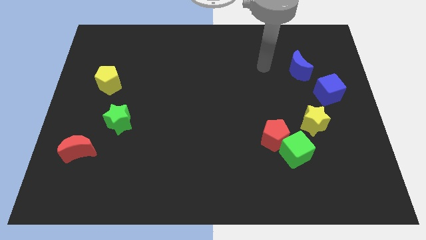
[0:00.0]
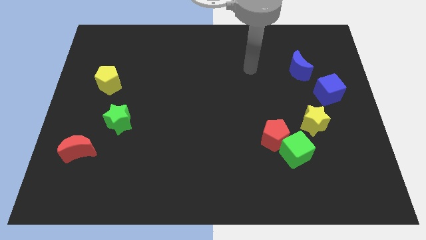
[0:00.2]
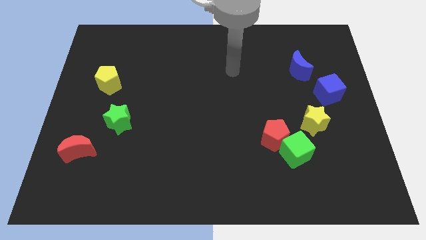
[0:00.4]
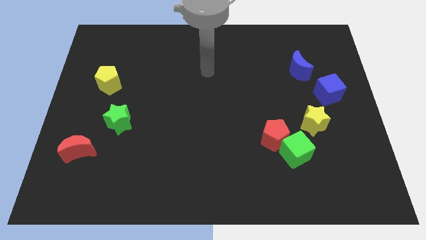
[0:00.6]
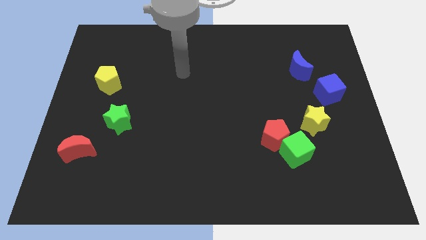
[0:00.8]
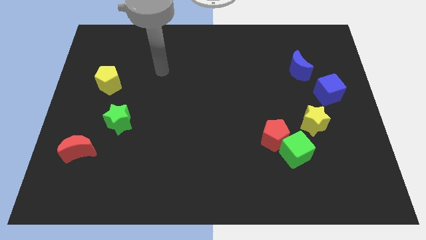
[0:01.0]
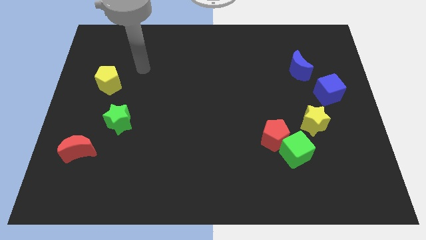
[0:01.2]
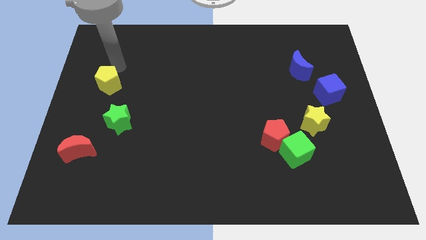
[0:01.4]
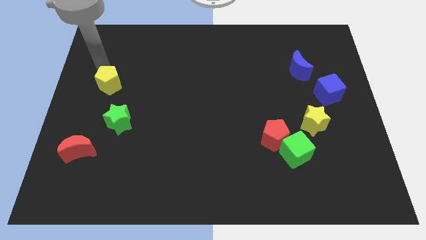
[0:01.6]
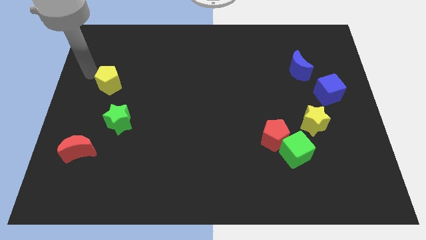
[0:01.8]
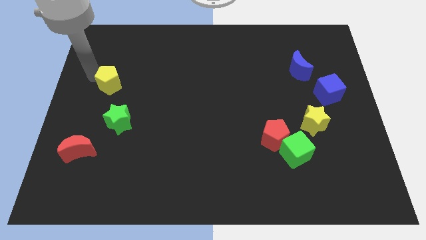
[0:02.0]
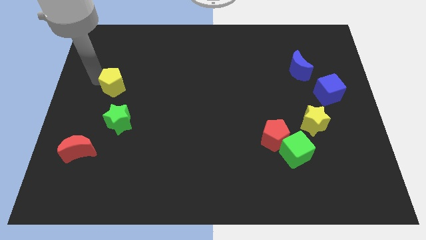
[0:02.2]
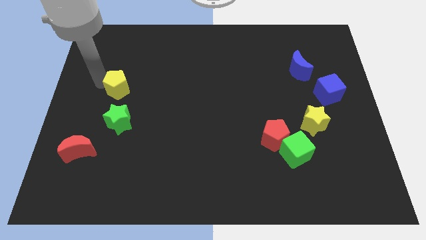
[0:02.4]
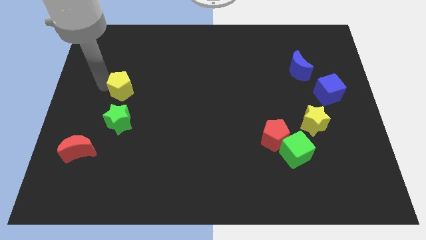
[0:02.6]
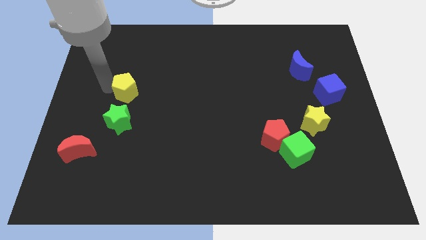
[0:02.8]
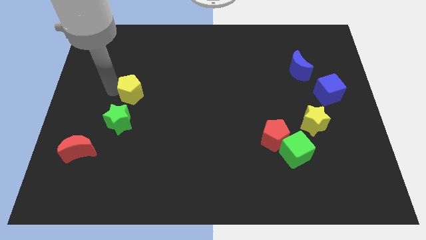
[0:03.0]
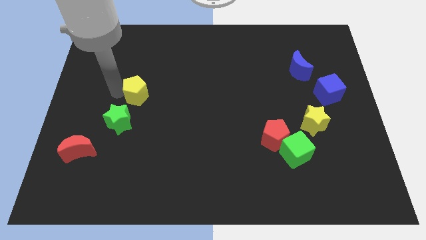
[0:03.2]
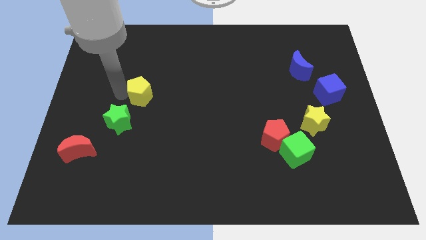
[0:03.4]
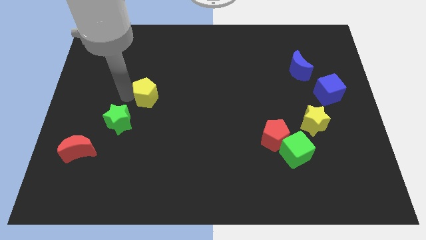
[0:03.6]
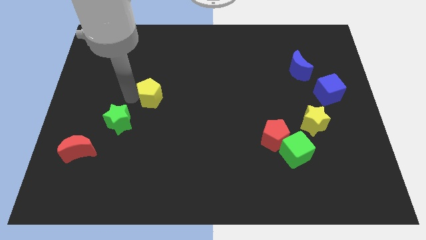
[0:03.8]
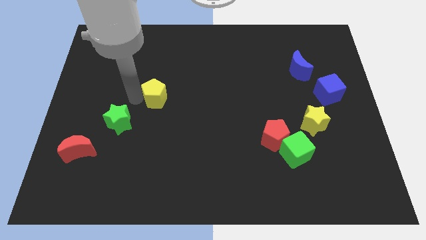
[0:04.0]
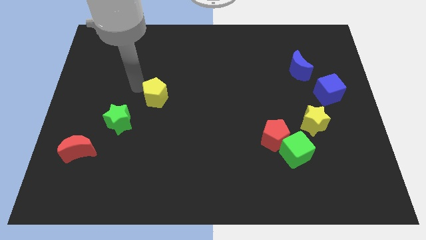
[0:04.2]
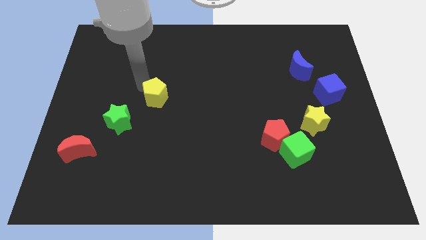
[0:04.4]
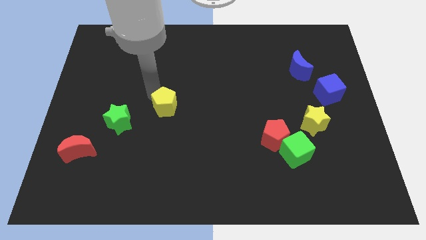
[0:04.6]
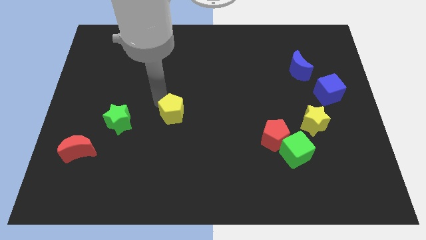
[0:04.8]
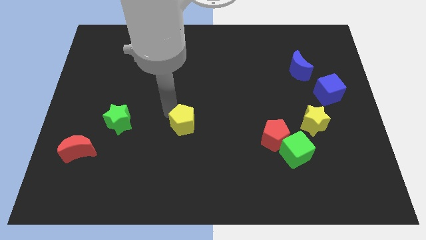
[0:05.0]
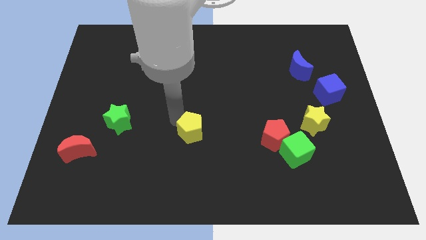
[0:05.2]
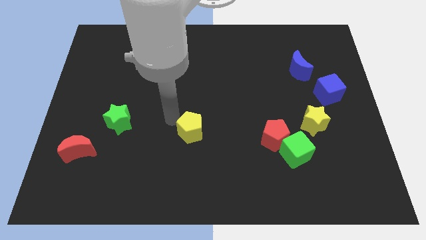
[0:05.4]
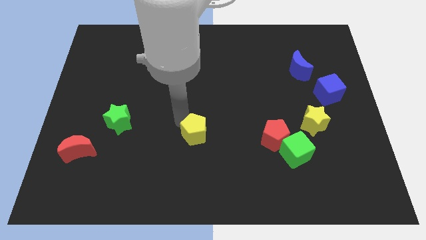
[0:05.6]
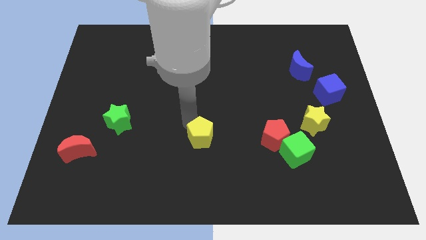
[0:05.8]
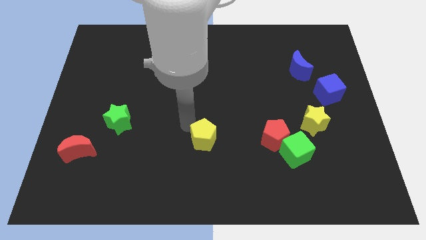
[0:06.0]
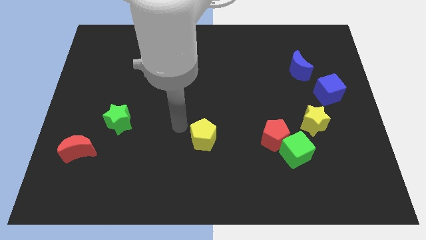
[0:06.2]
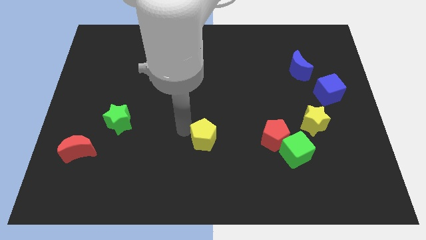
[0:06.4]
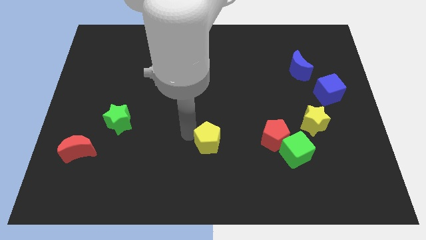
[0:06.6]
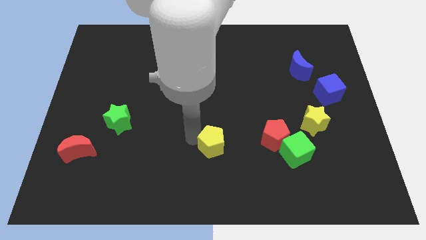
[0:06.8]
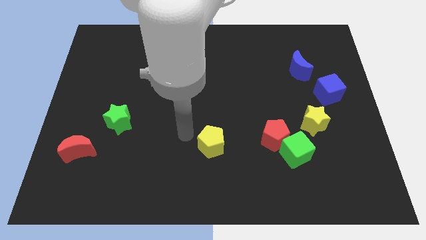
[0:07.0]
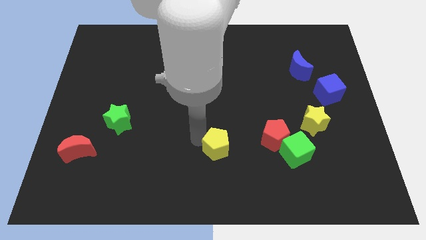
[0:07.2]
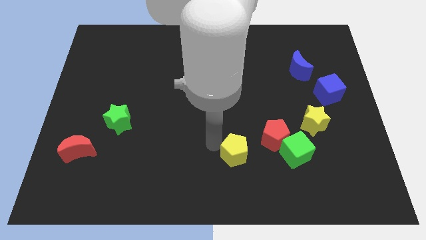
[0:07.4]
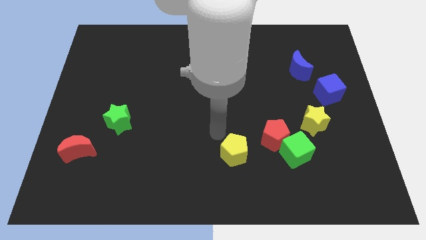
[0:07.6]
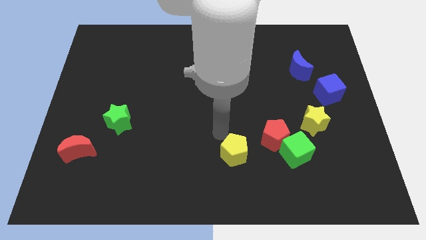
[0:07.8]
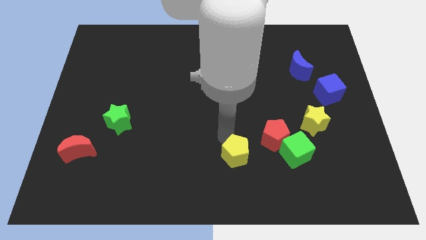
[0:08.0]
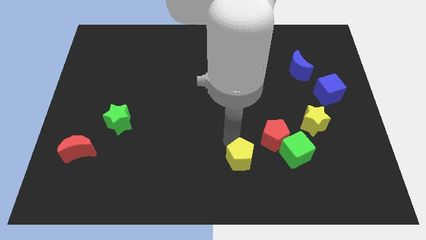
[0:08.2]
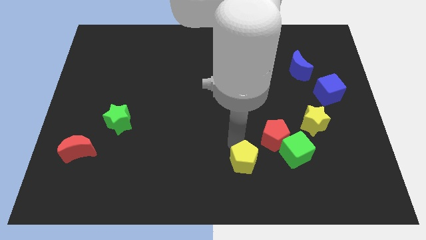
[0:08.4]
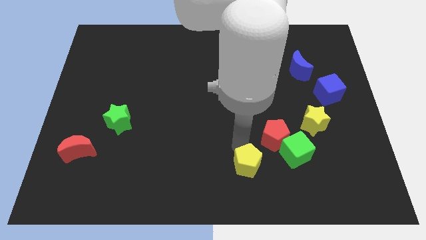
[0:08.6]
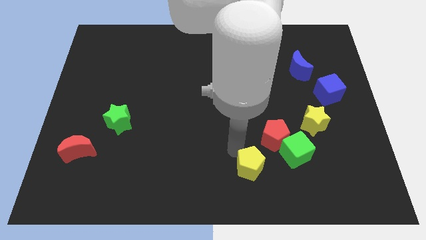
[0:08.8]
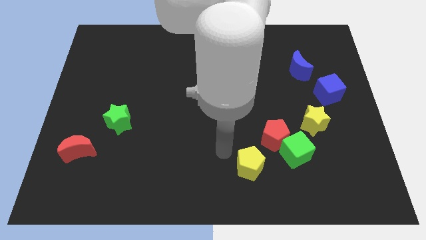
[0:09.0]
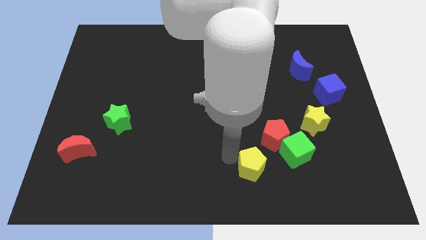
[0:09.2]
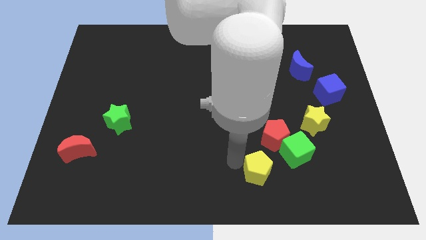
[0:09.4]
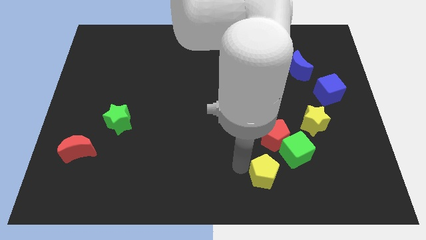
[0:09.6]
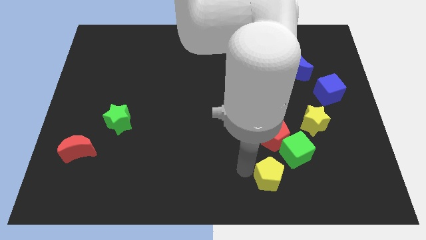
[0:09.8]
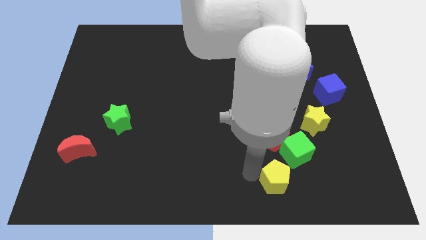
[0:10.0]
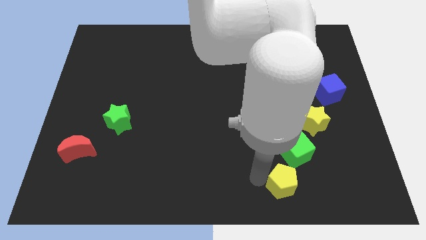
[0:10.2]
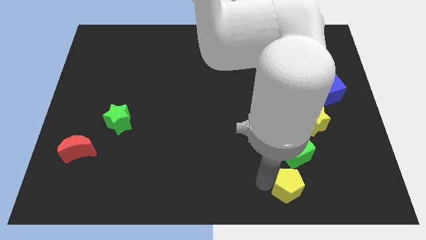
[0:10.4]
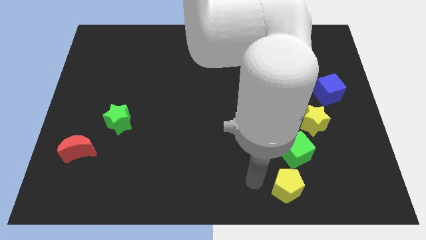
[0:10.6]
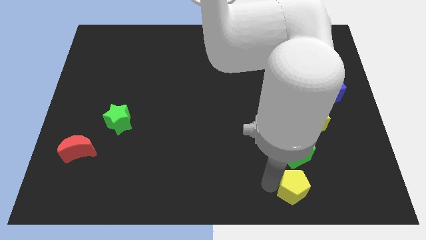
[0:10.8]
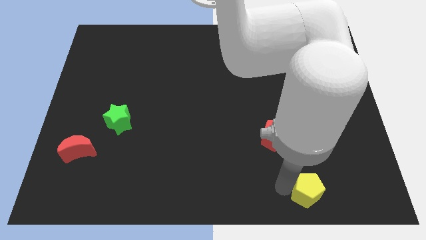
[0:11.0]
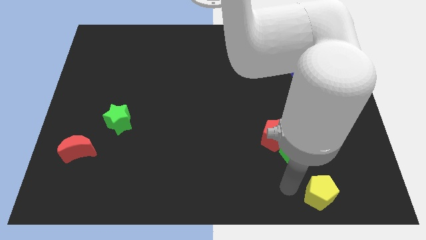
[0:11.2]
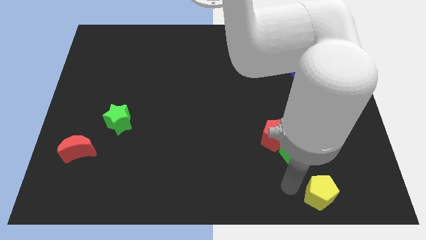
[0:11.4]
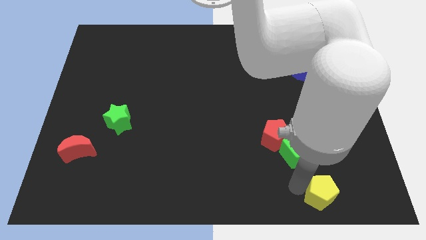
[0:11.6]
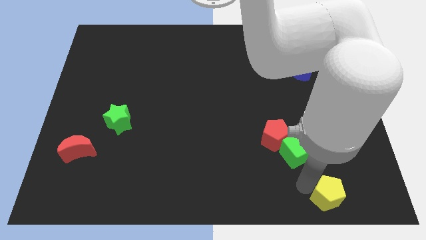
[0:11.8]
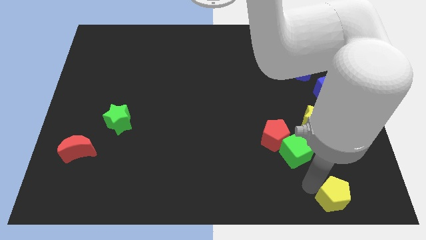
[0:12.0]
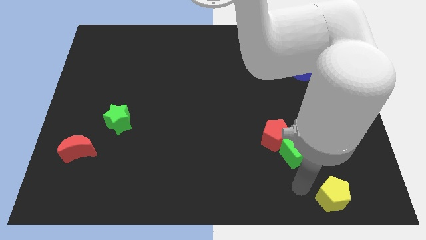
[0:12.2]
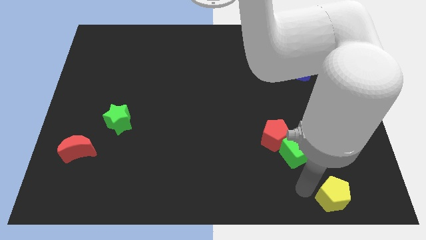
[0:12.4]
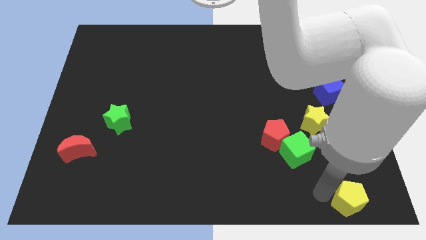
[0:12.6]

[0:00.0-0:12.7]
slide the yellow pentagon to the bottom right of the board
